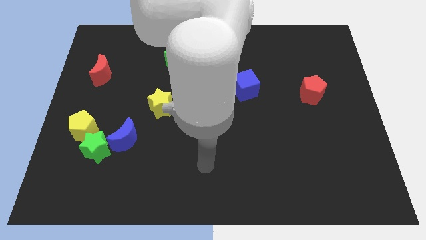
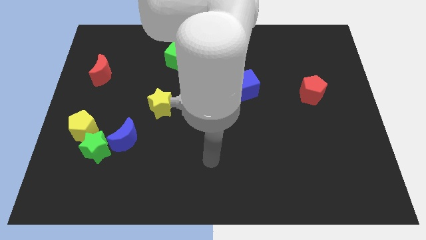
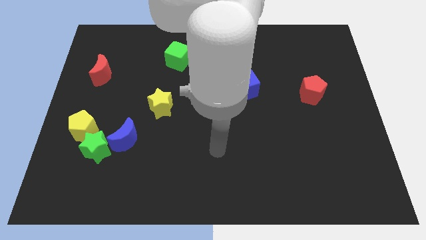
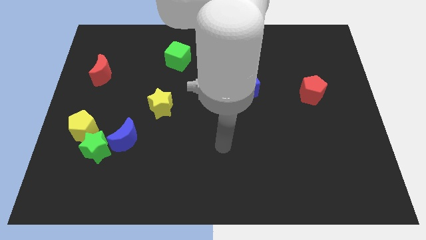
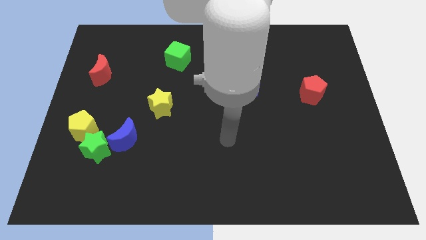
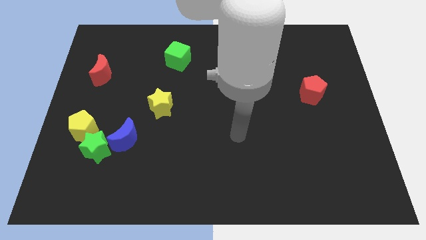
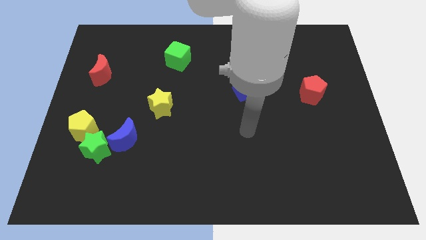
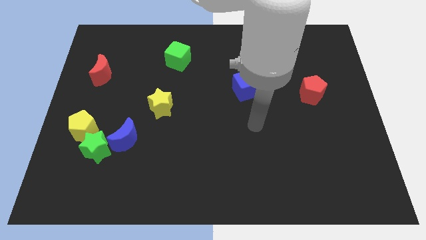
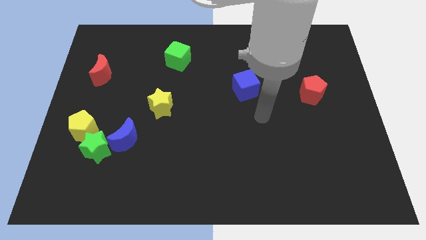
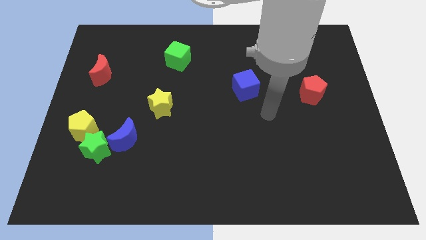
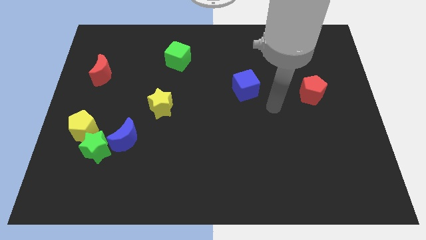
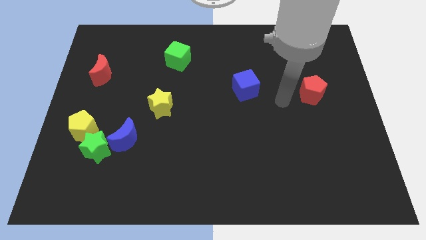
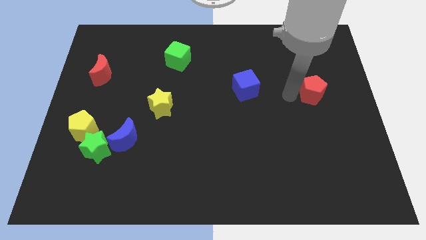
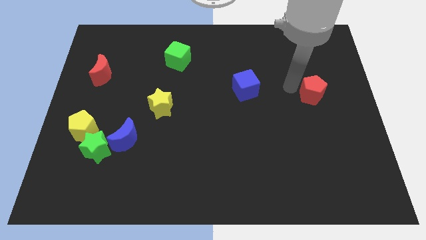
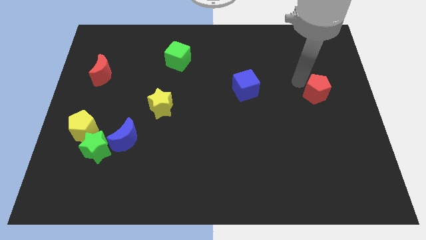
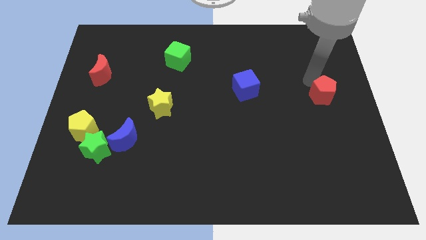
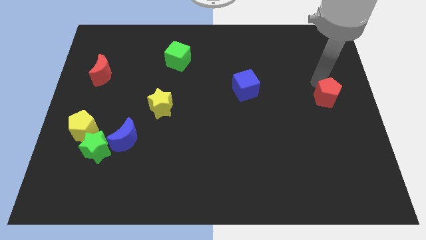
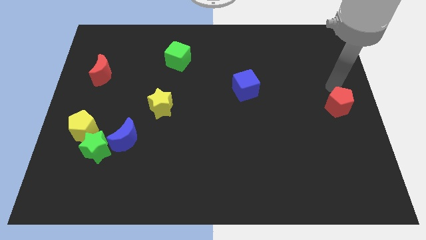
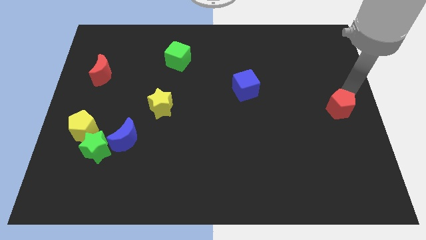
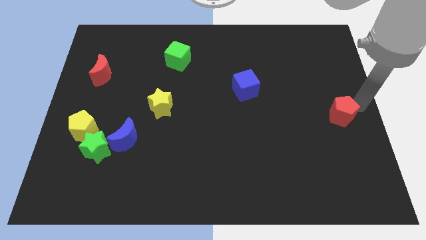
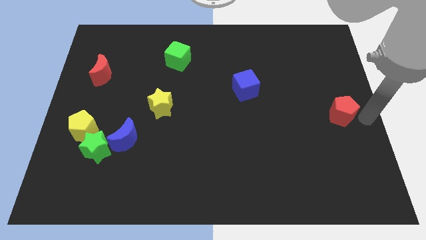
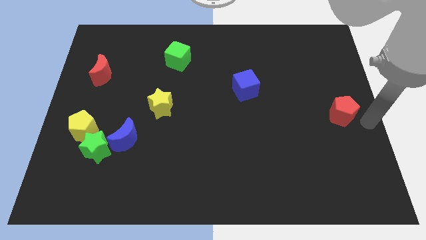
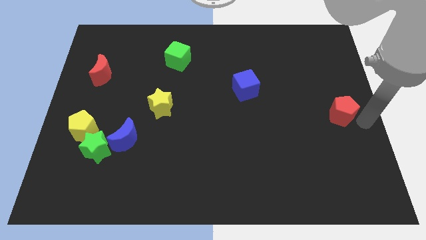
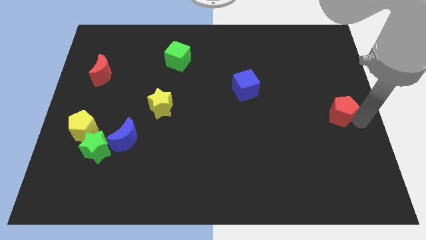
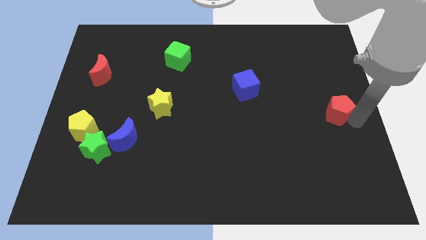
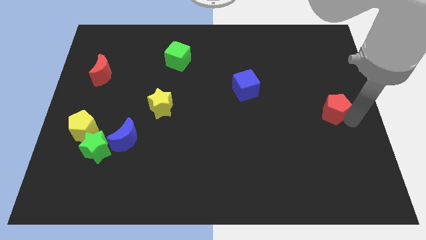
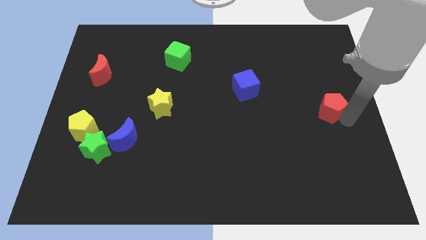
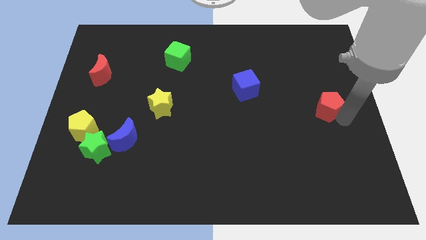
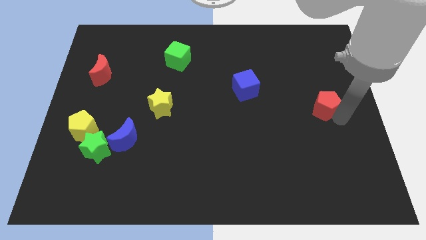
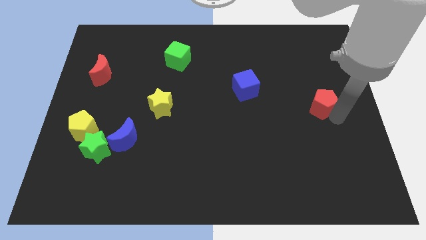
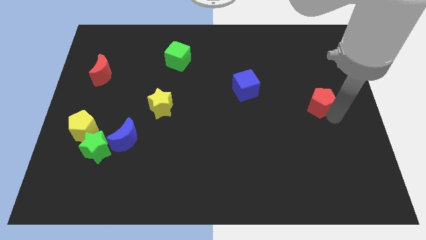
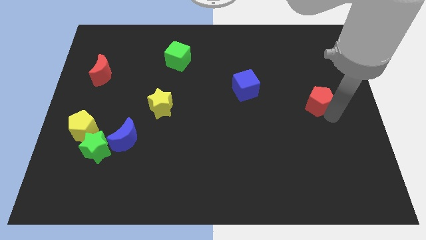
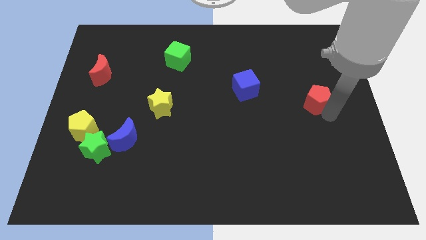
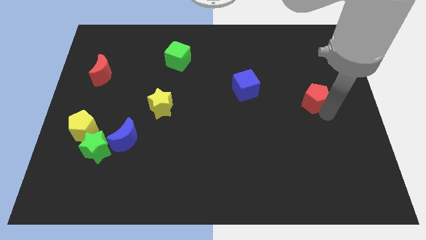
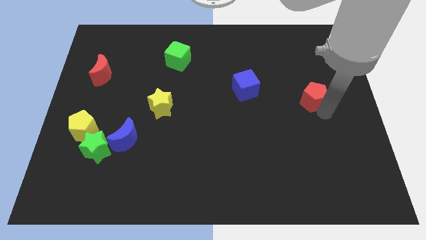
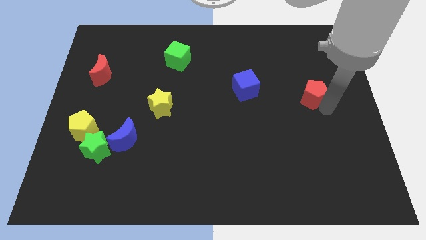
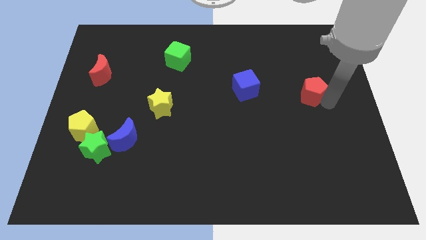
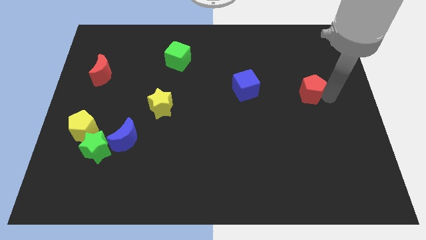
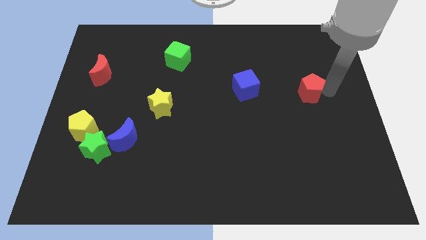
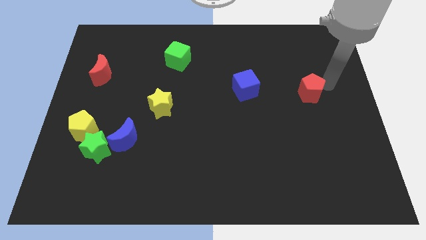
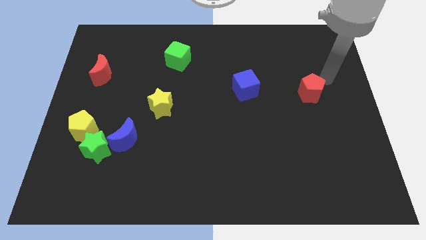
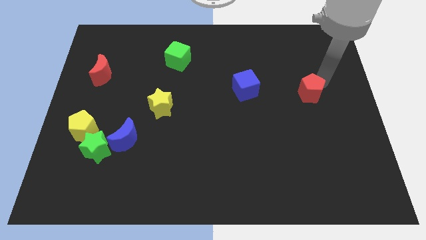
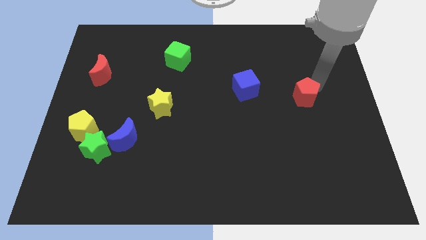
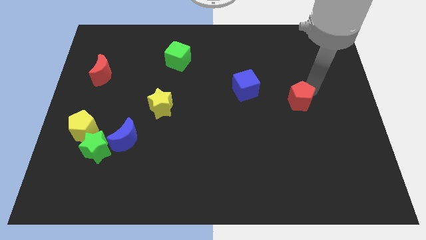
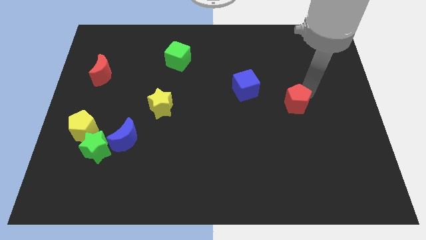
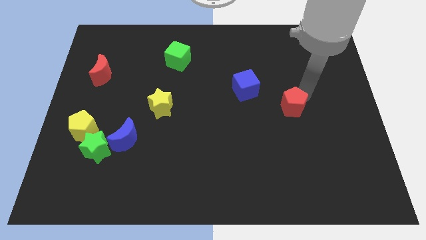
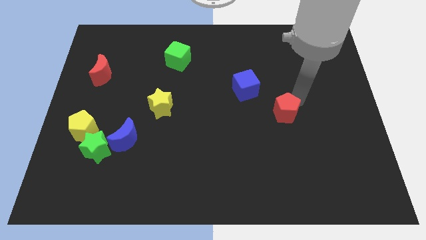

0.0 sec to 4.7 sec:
move the red pentagon down and then left a little

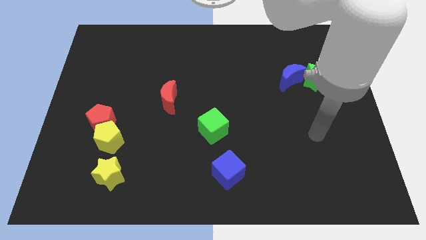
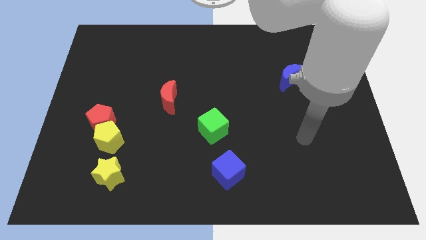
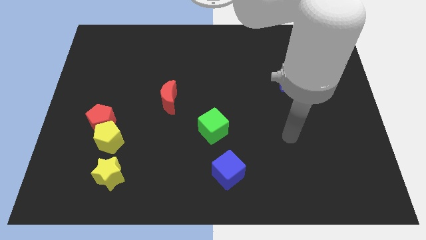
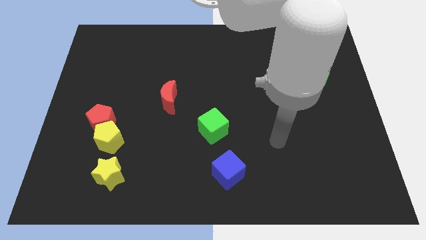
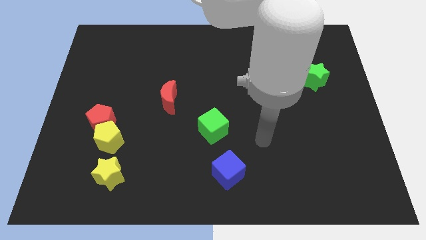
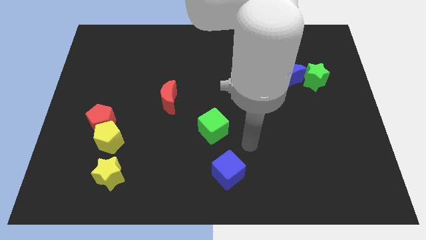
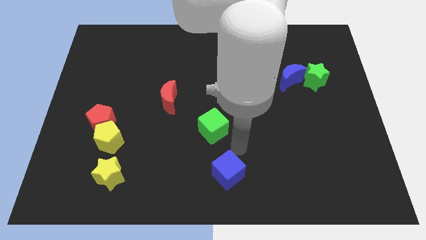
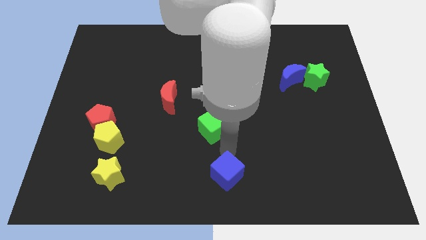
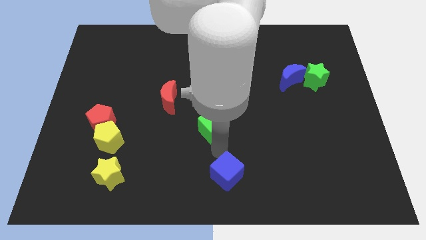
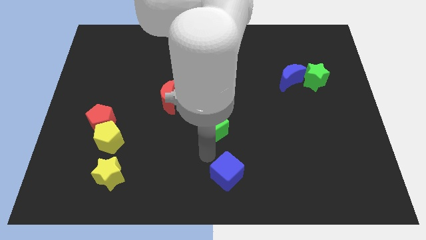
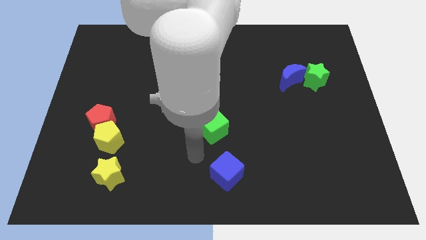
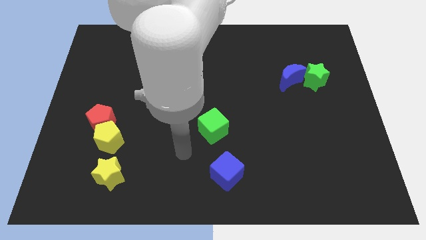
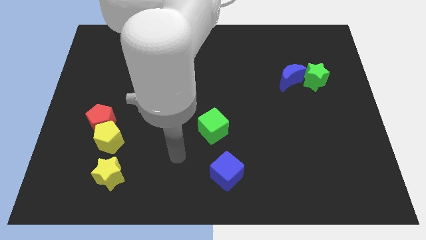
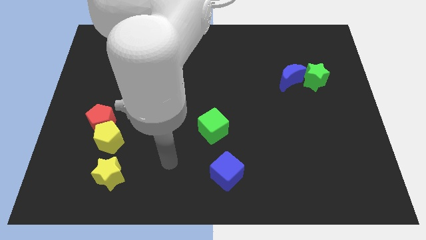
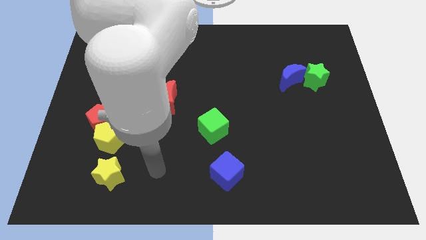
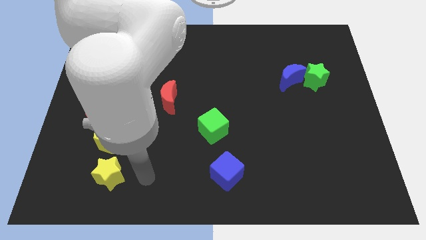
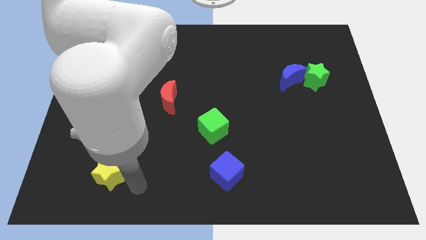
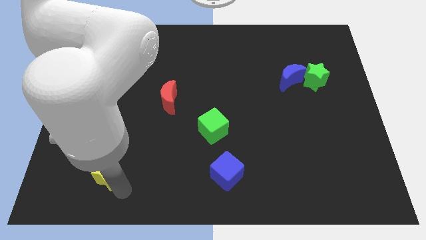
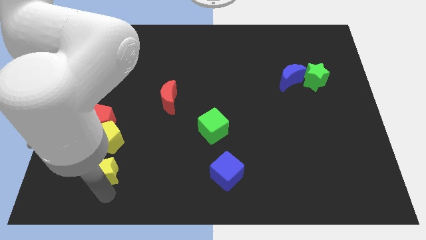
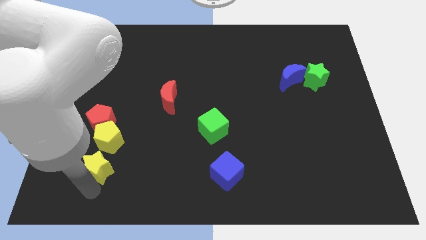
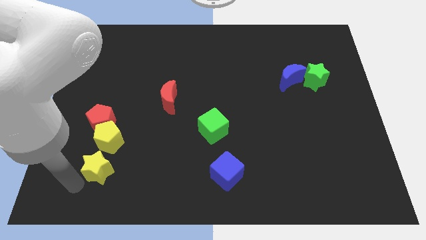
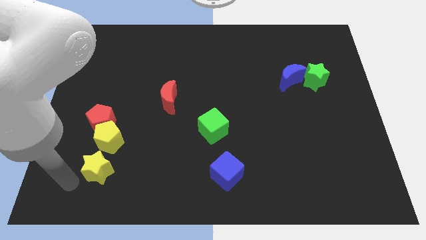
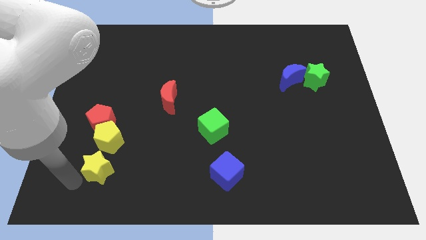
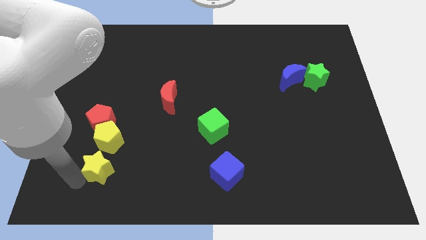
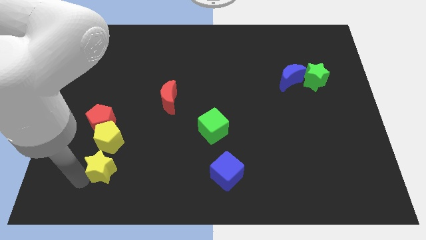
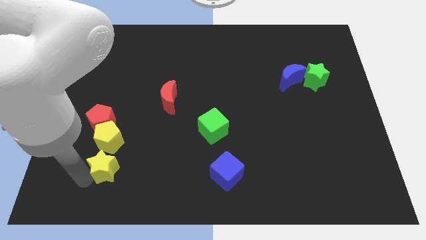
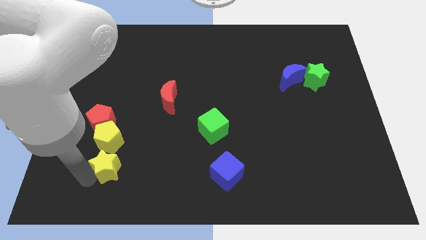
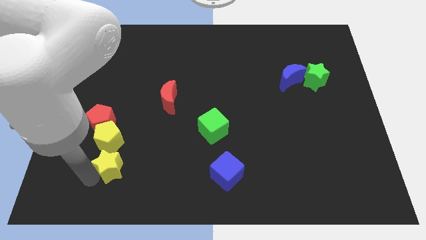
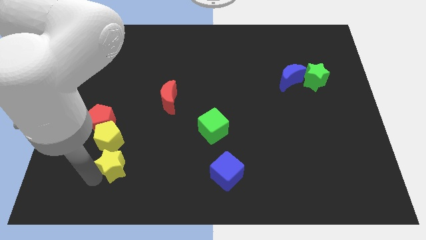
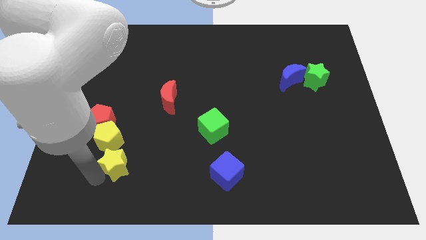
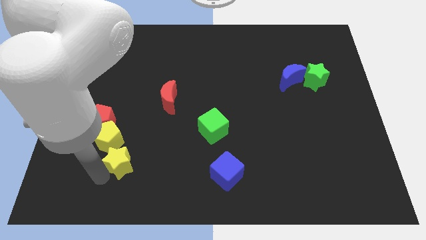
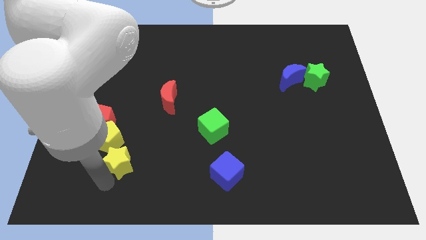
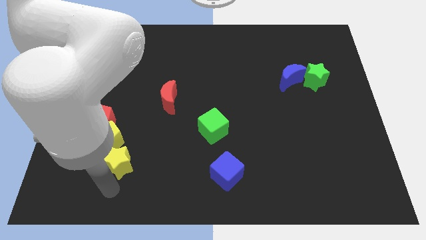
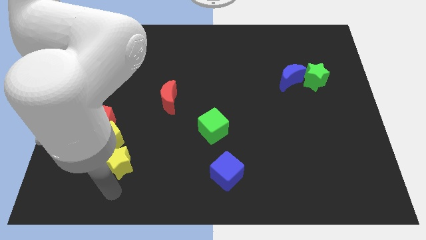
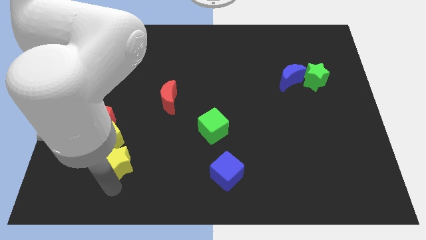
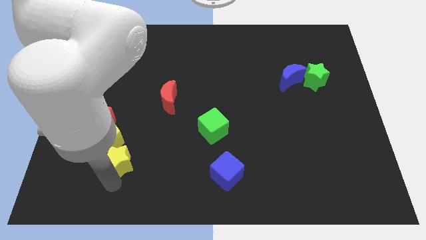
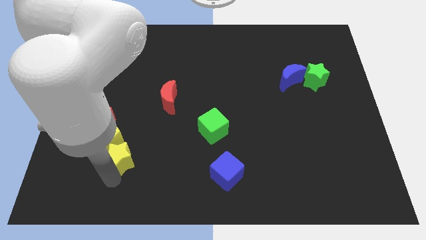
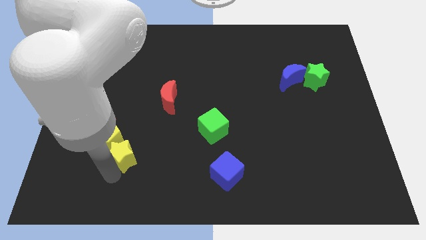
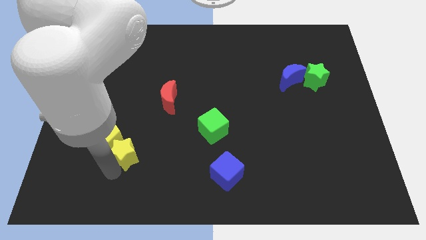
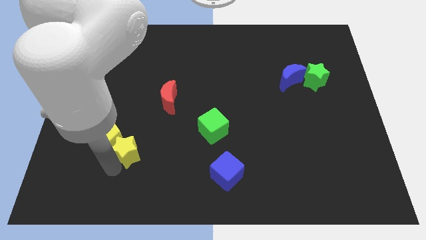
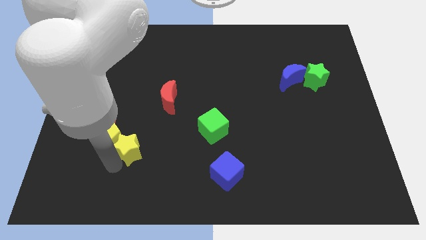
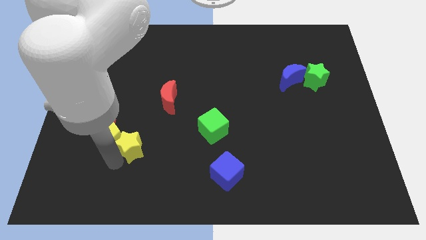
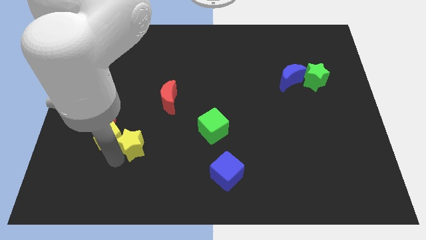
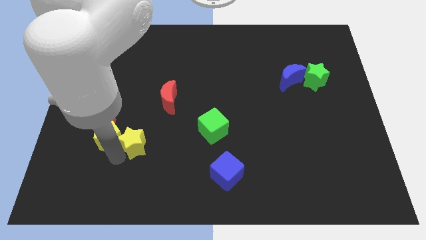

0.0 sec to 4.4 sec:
slightly push the yellow star upwards
